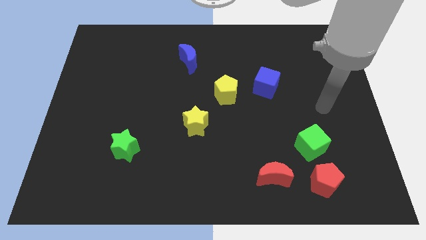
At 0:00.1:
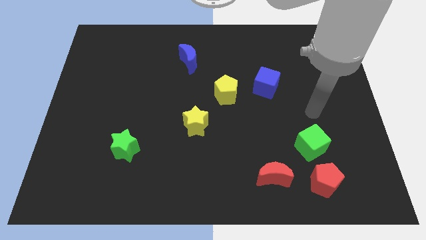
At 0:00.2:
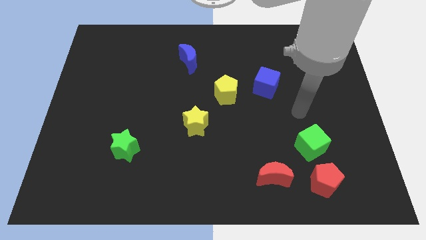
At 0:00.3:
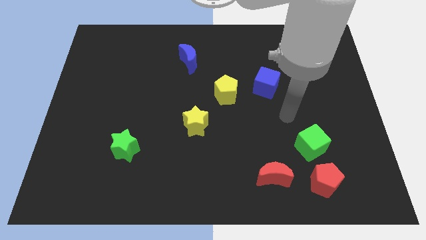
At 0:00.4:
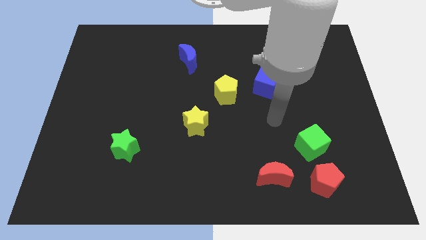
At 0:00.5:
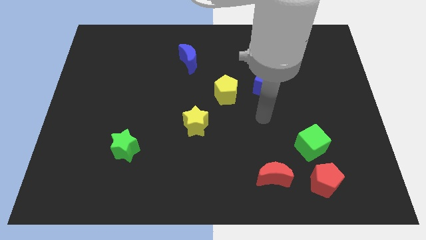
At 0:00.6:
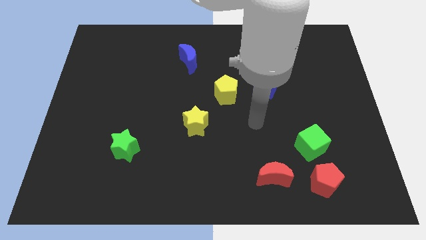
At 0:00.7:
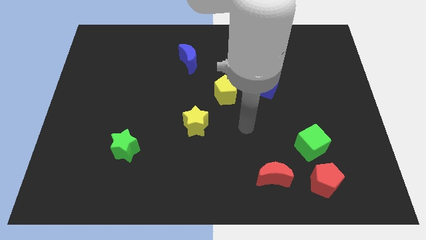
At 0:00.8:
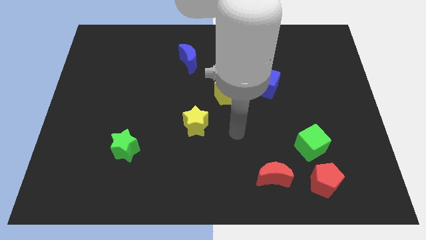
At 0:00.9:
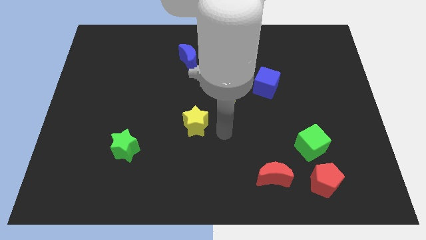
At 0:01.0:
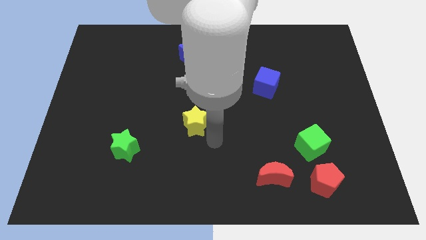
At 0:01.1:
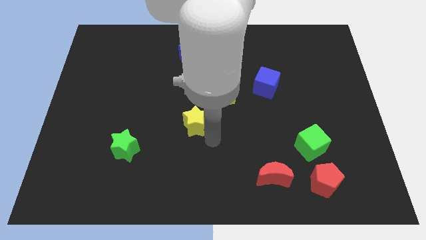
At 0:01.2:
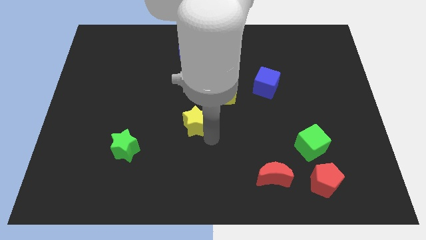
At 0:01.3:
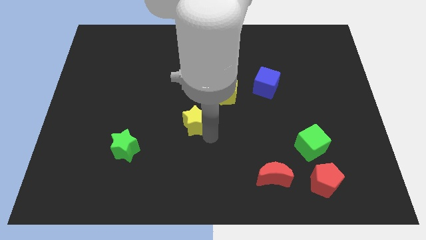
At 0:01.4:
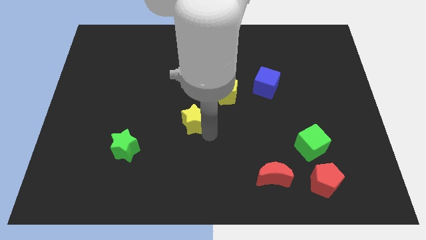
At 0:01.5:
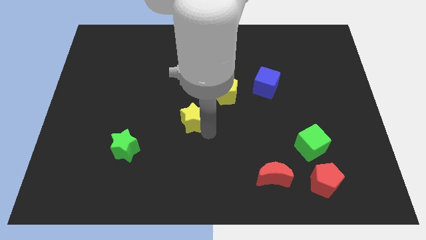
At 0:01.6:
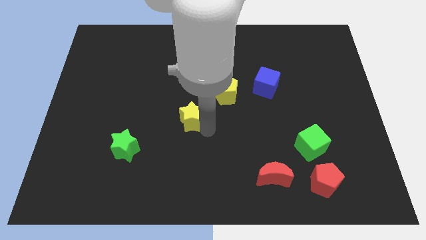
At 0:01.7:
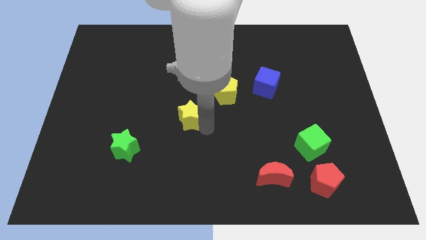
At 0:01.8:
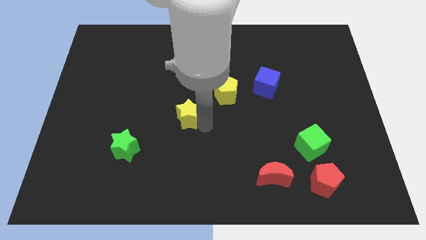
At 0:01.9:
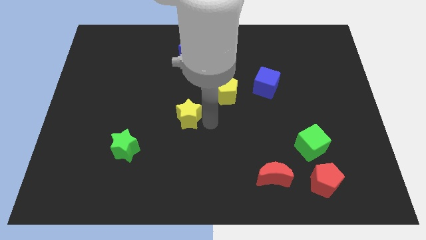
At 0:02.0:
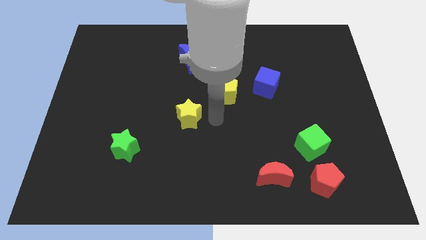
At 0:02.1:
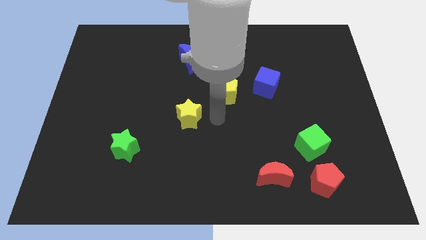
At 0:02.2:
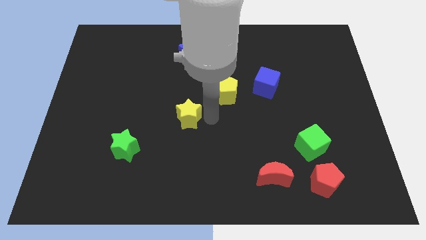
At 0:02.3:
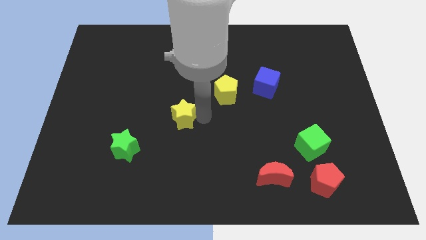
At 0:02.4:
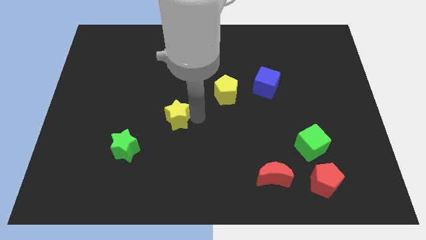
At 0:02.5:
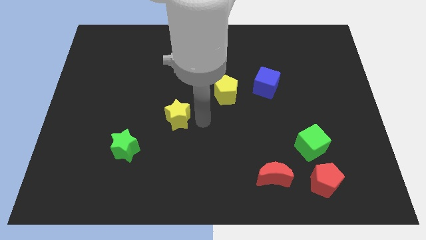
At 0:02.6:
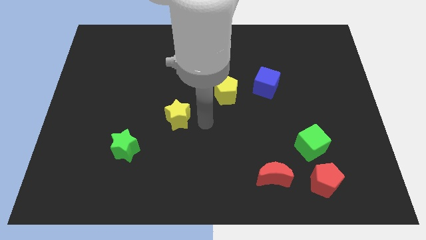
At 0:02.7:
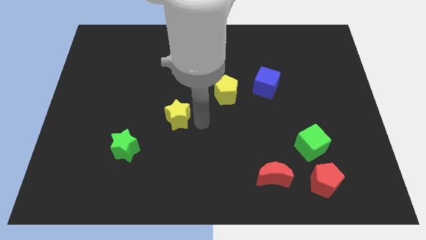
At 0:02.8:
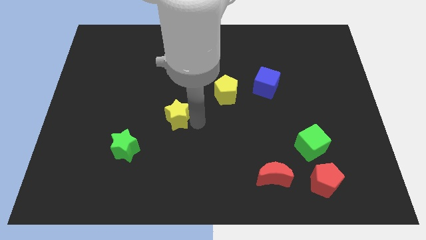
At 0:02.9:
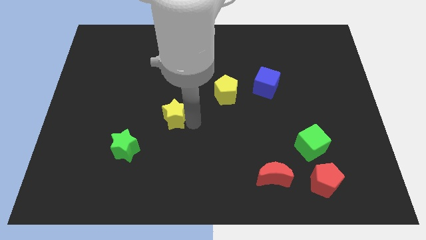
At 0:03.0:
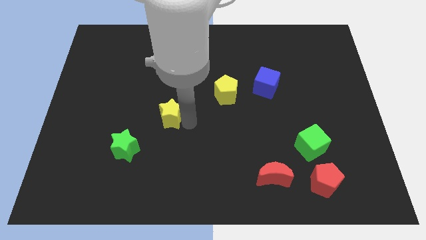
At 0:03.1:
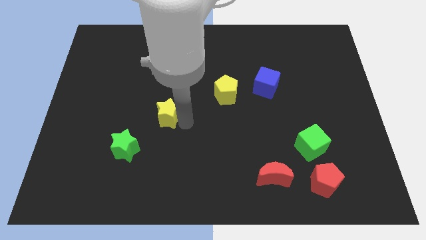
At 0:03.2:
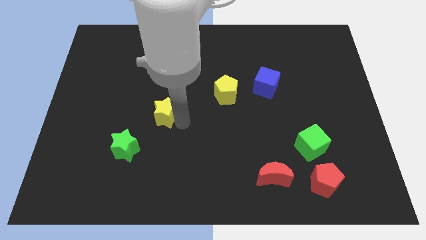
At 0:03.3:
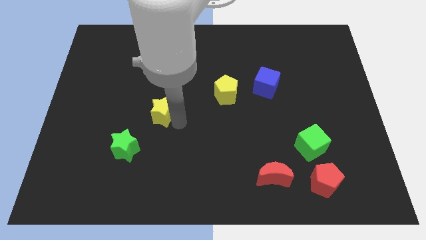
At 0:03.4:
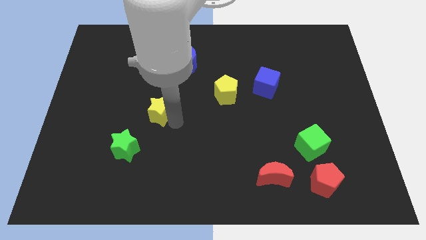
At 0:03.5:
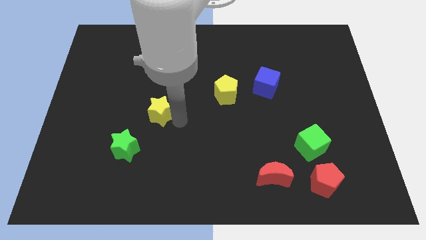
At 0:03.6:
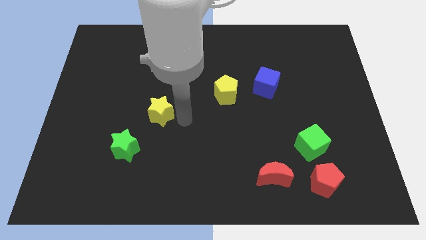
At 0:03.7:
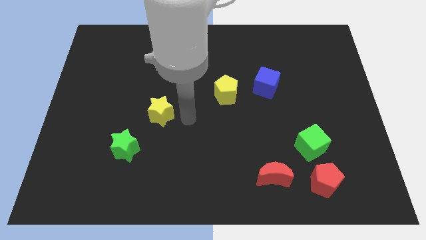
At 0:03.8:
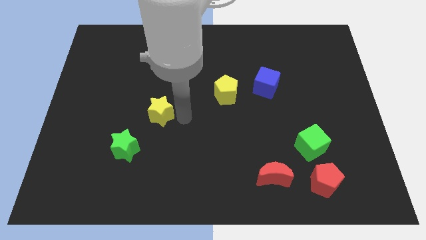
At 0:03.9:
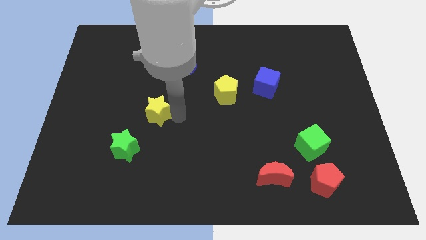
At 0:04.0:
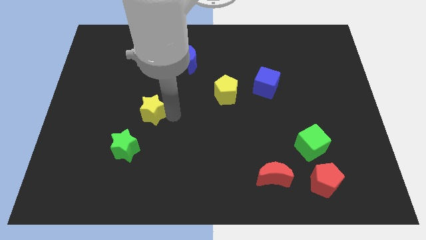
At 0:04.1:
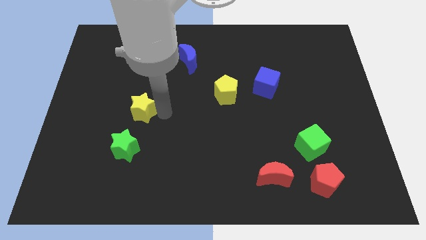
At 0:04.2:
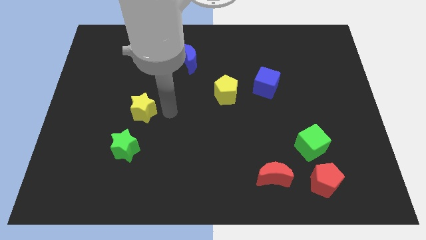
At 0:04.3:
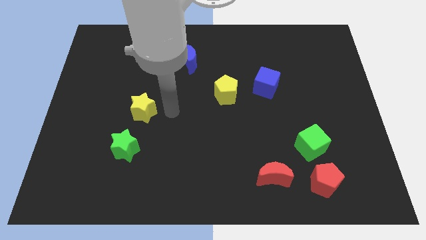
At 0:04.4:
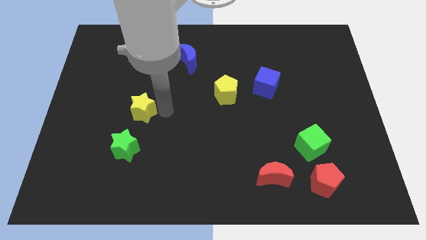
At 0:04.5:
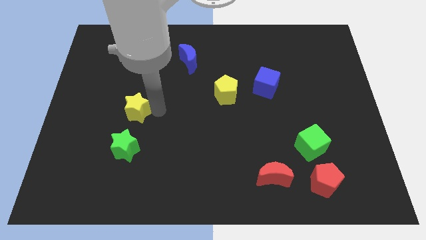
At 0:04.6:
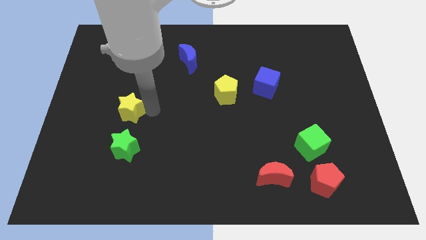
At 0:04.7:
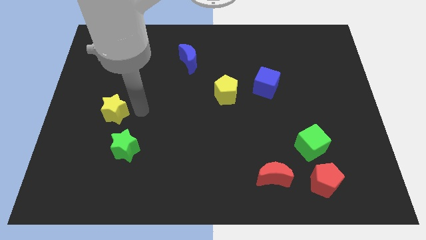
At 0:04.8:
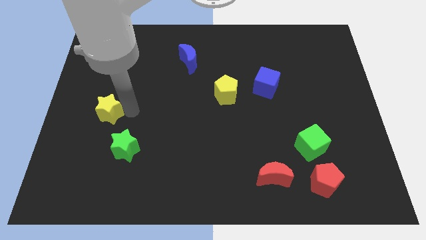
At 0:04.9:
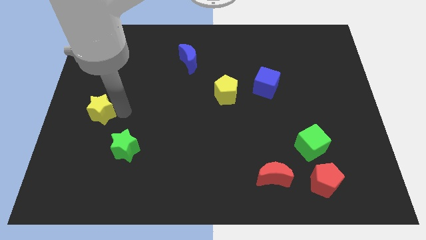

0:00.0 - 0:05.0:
slide the yellow star to the left side

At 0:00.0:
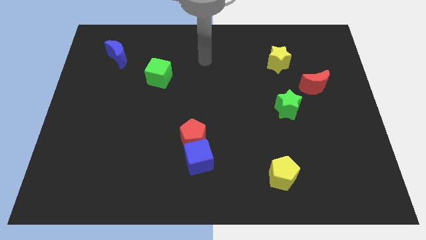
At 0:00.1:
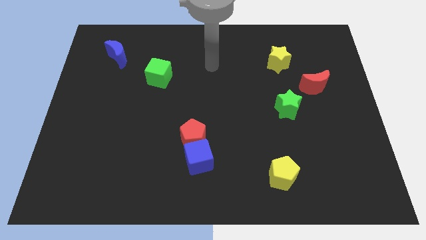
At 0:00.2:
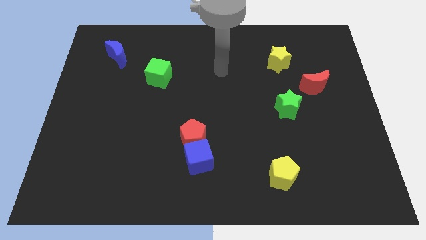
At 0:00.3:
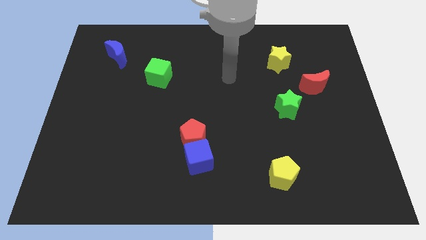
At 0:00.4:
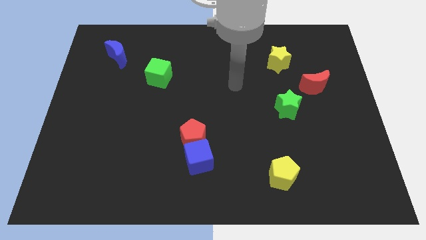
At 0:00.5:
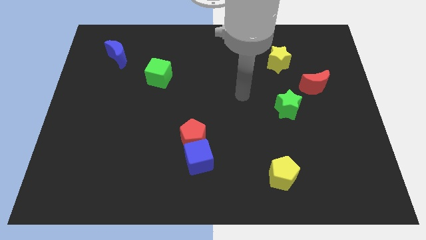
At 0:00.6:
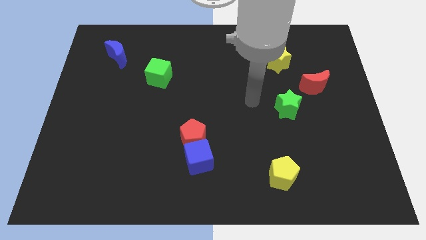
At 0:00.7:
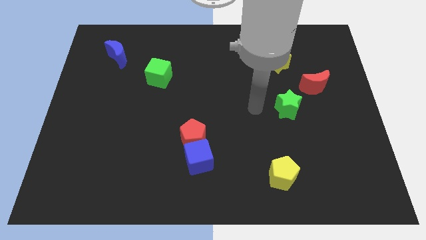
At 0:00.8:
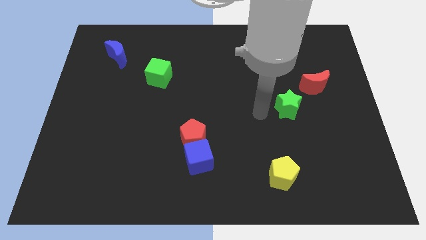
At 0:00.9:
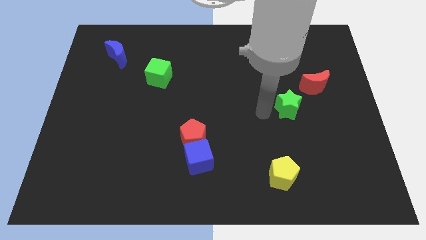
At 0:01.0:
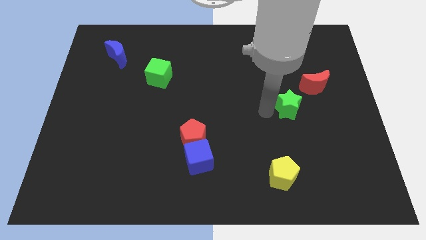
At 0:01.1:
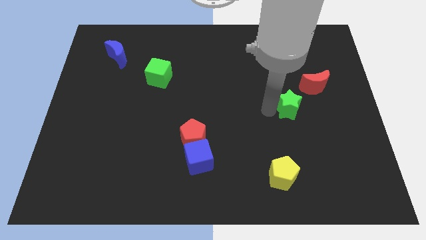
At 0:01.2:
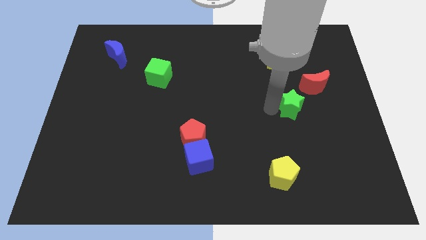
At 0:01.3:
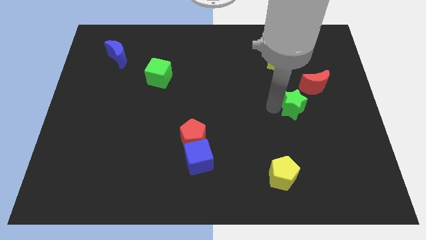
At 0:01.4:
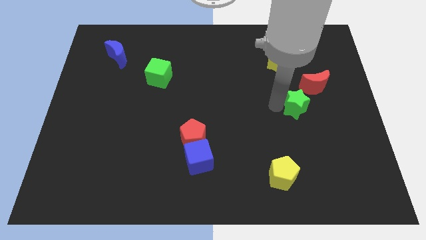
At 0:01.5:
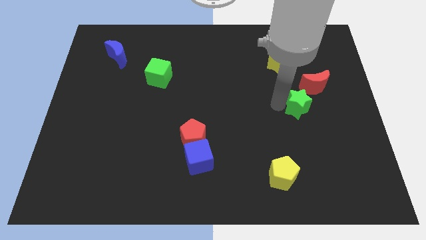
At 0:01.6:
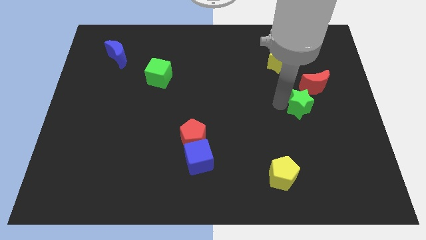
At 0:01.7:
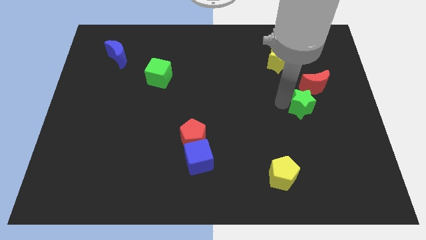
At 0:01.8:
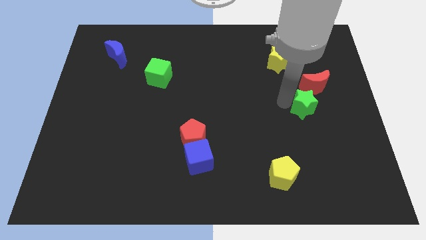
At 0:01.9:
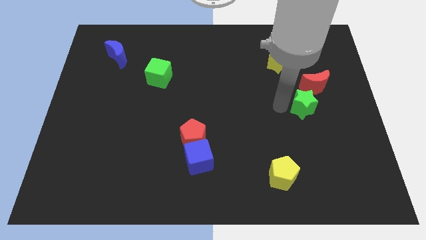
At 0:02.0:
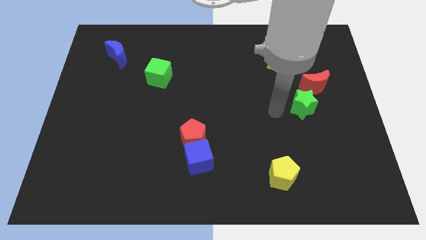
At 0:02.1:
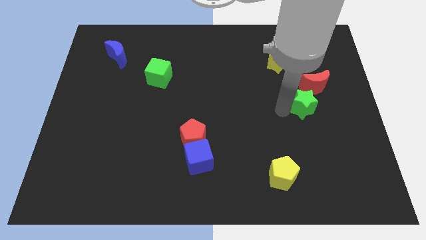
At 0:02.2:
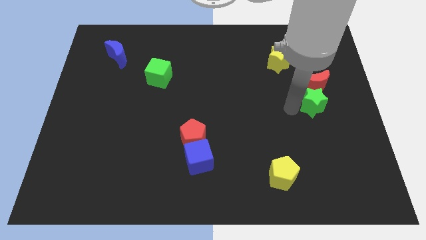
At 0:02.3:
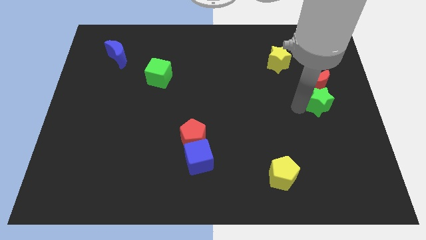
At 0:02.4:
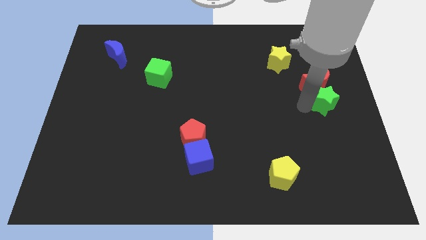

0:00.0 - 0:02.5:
push the green star to the right side
